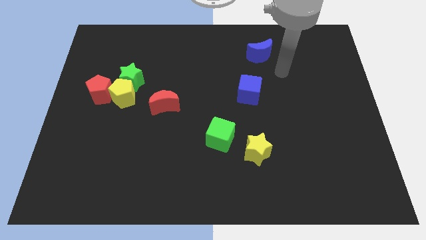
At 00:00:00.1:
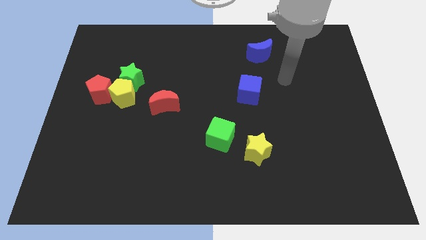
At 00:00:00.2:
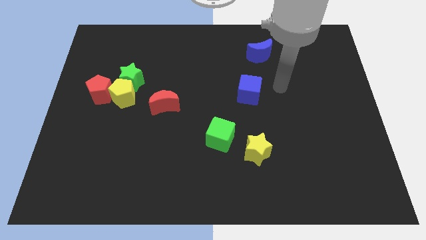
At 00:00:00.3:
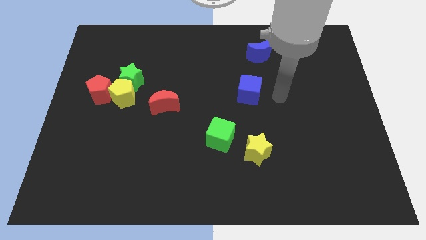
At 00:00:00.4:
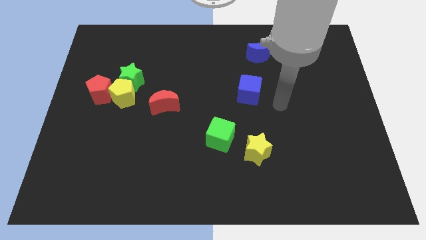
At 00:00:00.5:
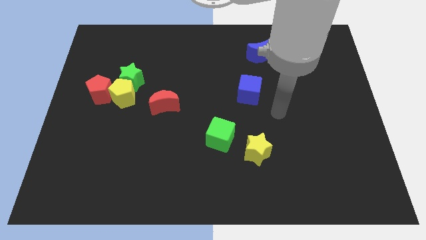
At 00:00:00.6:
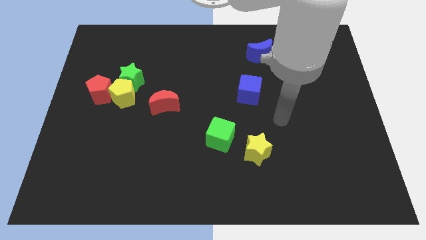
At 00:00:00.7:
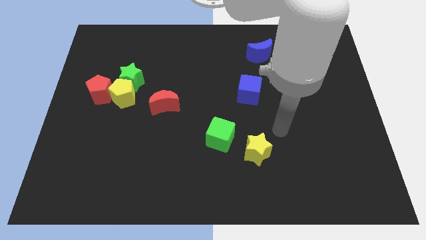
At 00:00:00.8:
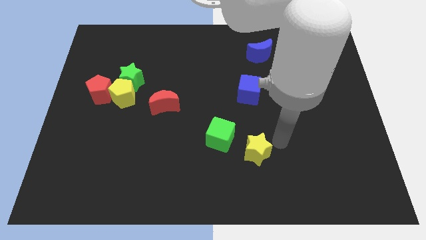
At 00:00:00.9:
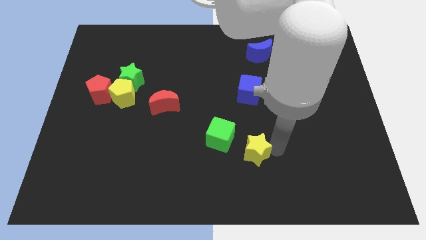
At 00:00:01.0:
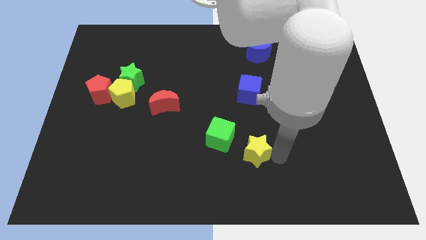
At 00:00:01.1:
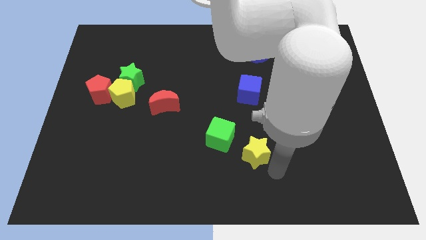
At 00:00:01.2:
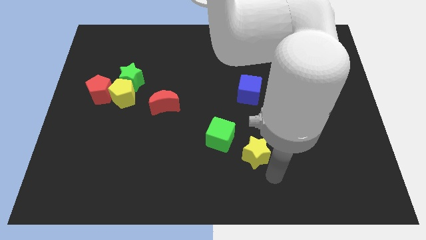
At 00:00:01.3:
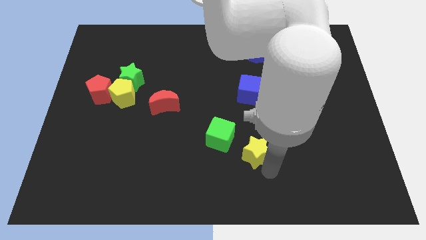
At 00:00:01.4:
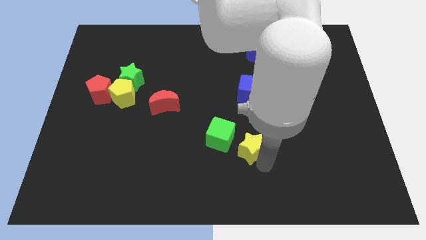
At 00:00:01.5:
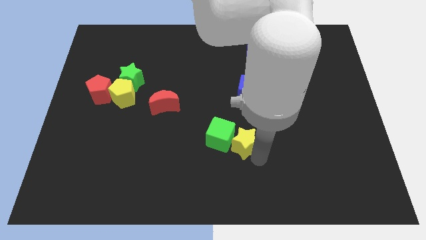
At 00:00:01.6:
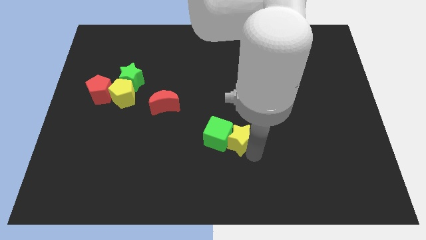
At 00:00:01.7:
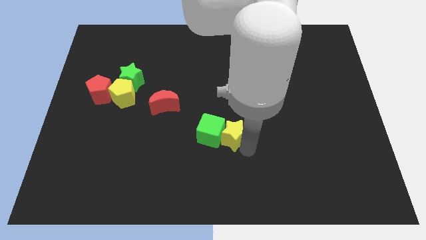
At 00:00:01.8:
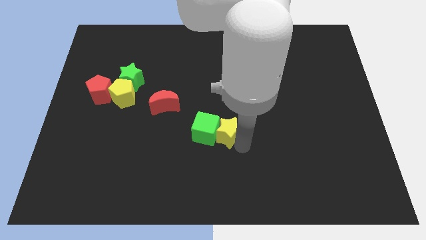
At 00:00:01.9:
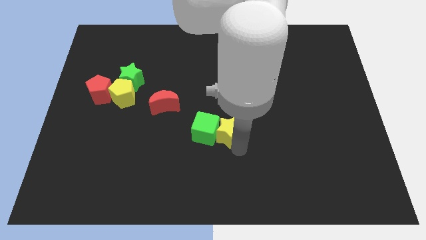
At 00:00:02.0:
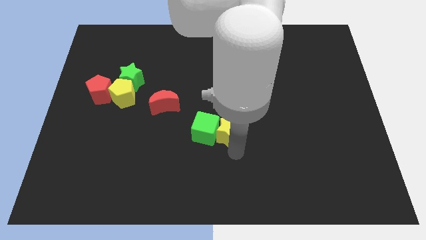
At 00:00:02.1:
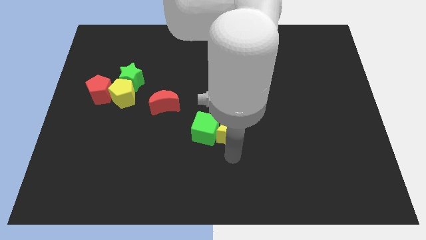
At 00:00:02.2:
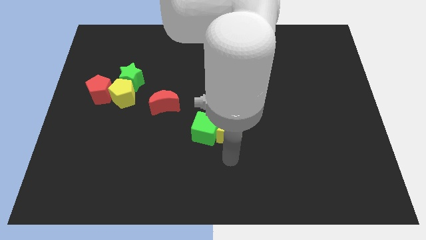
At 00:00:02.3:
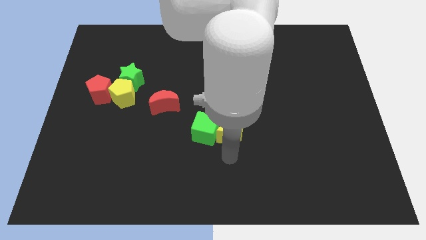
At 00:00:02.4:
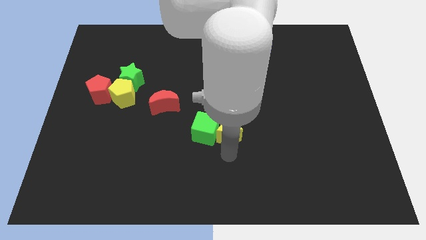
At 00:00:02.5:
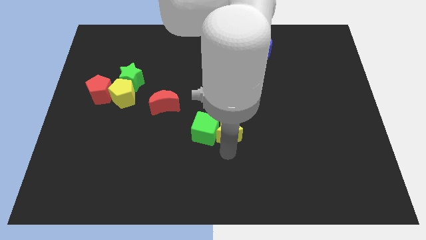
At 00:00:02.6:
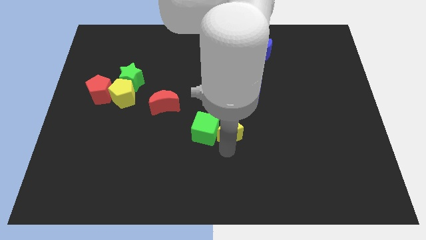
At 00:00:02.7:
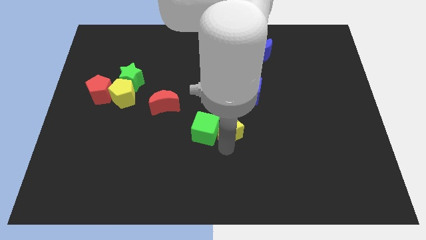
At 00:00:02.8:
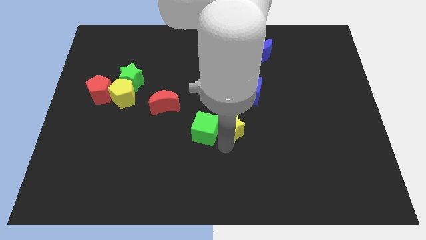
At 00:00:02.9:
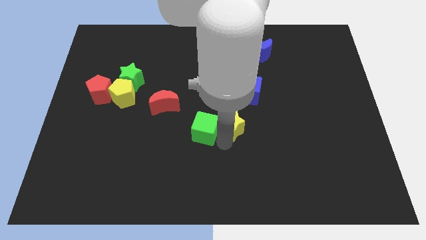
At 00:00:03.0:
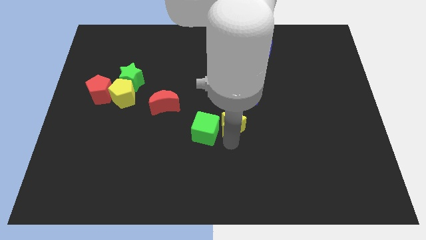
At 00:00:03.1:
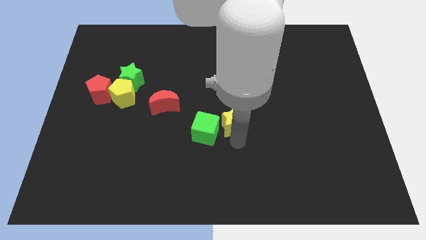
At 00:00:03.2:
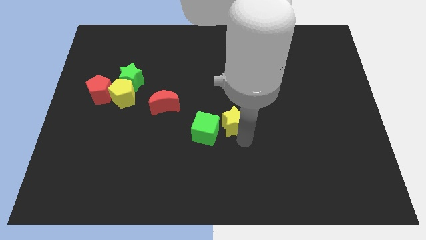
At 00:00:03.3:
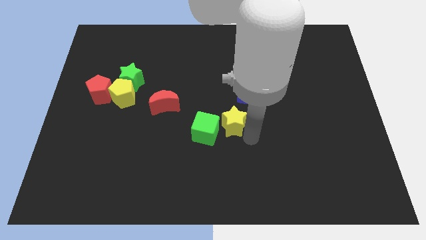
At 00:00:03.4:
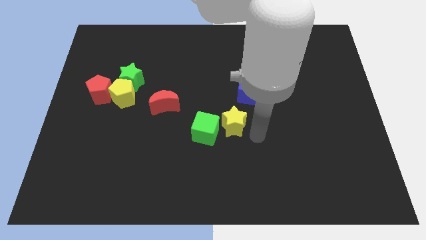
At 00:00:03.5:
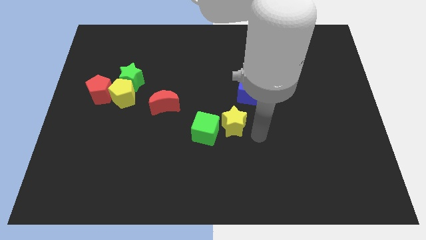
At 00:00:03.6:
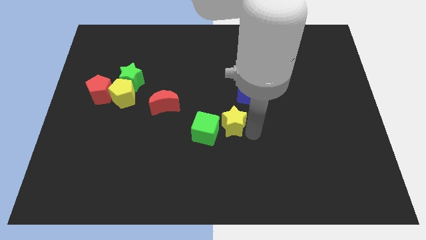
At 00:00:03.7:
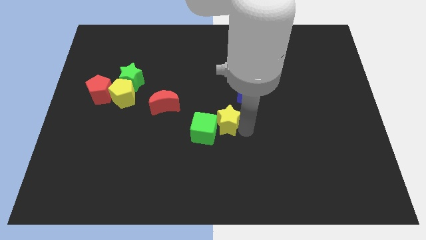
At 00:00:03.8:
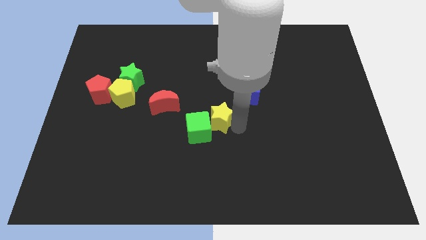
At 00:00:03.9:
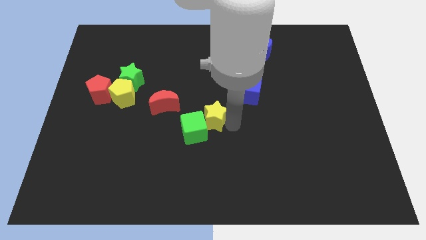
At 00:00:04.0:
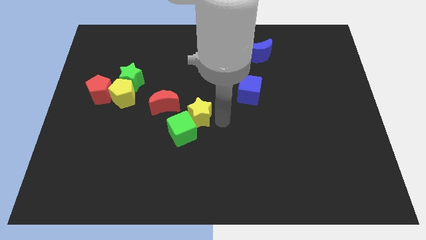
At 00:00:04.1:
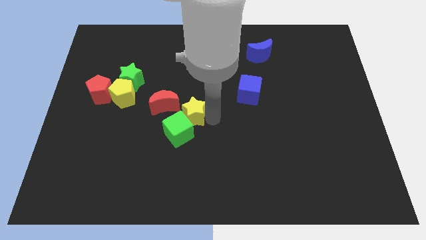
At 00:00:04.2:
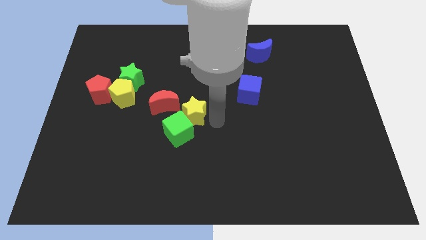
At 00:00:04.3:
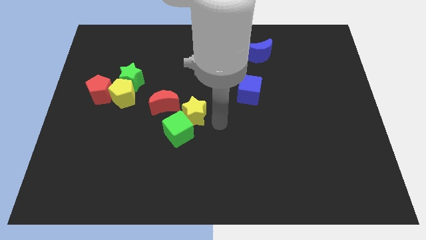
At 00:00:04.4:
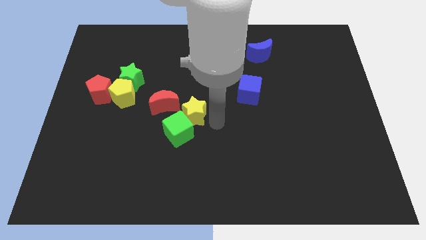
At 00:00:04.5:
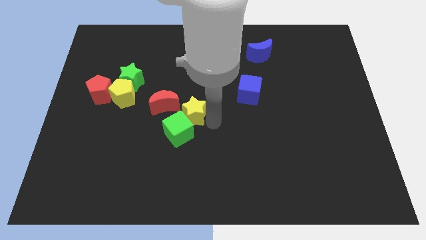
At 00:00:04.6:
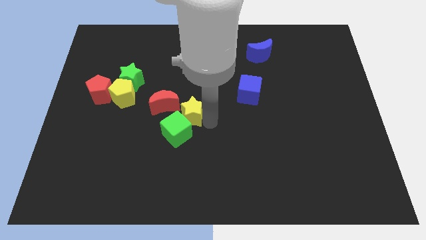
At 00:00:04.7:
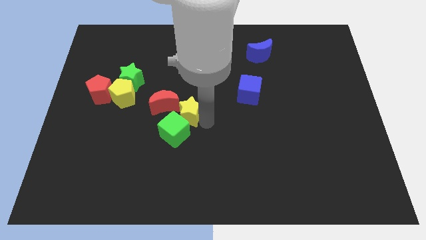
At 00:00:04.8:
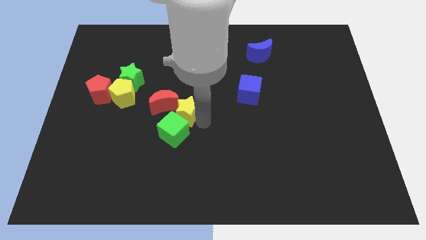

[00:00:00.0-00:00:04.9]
push the yellow star close to the red moon

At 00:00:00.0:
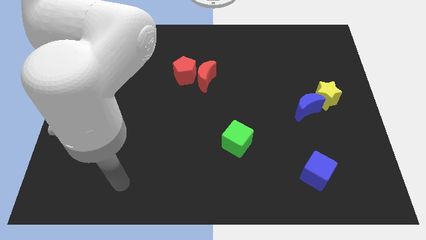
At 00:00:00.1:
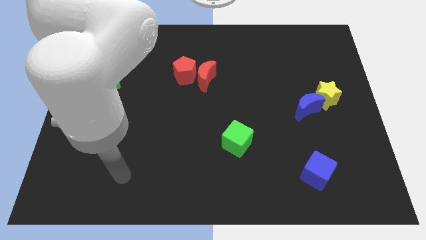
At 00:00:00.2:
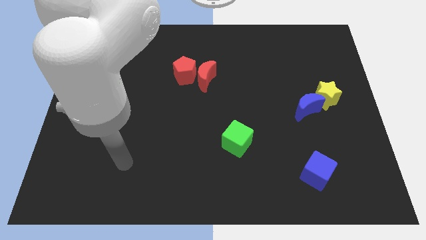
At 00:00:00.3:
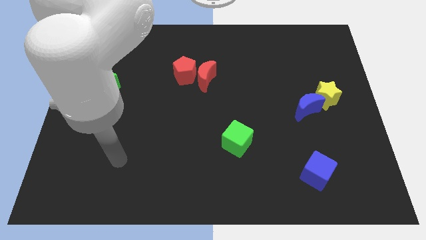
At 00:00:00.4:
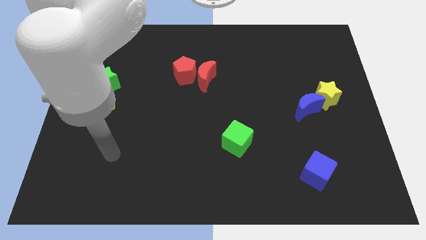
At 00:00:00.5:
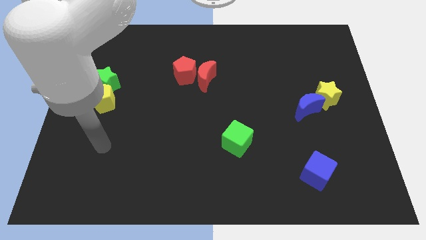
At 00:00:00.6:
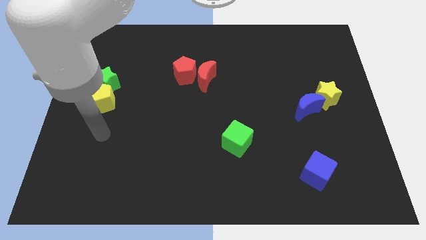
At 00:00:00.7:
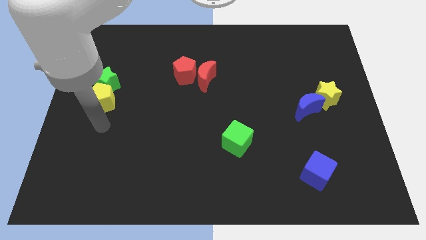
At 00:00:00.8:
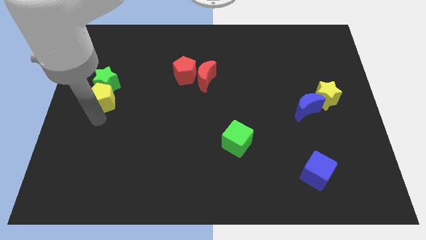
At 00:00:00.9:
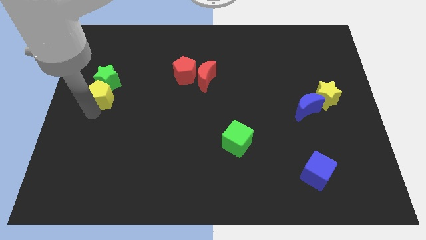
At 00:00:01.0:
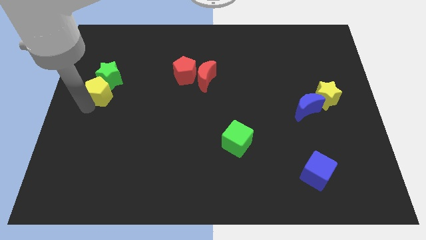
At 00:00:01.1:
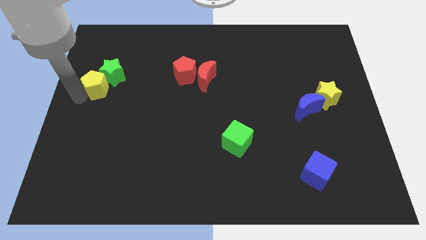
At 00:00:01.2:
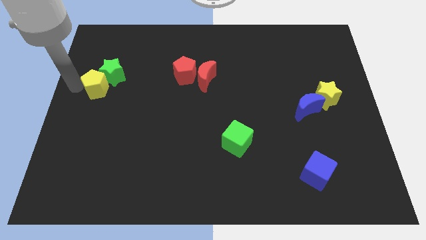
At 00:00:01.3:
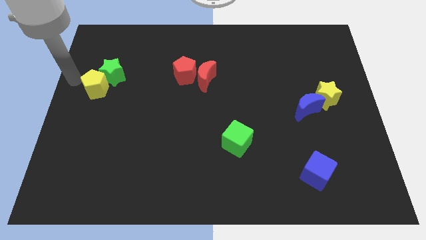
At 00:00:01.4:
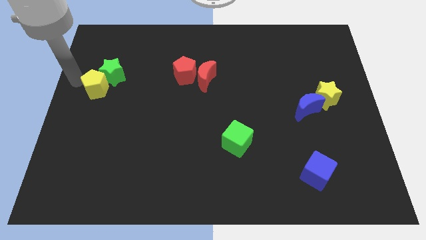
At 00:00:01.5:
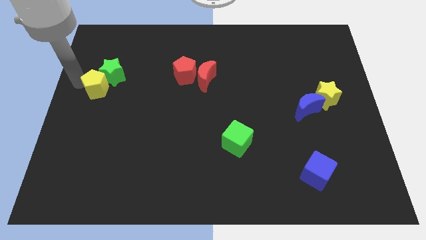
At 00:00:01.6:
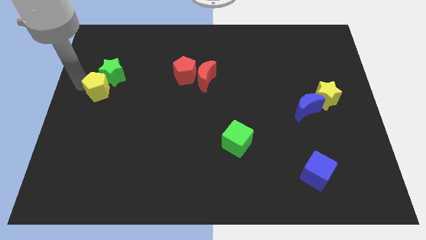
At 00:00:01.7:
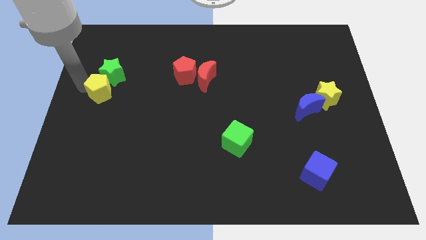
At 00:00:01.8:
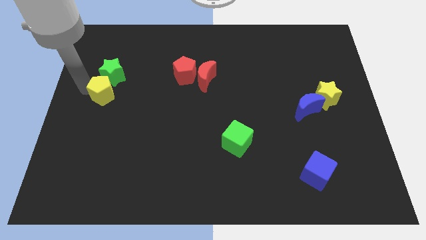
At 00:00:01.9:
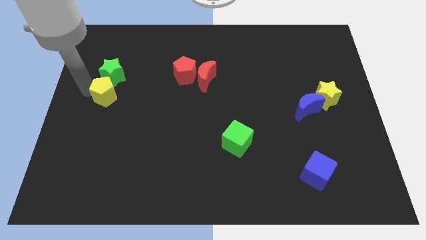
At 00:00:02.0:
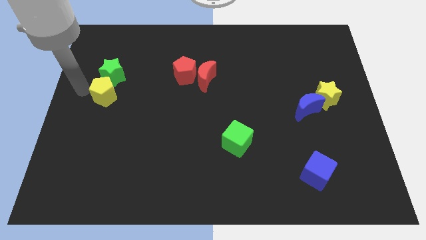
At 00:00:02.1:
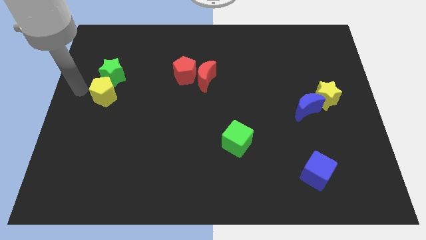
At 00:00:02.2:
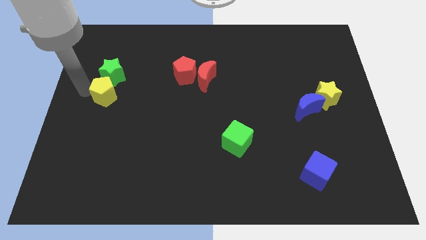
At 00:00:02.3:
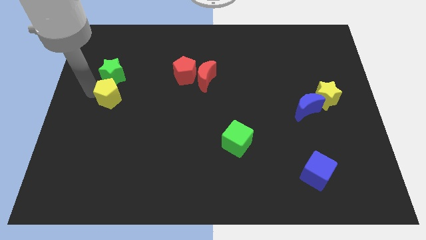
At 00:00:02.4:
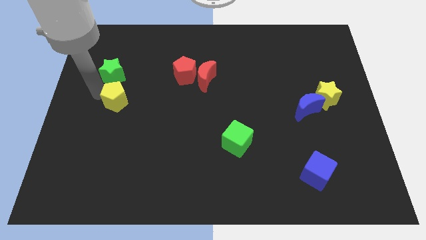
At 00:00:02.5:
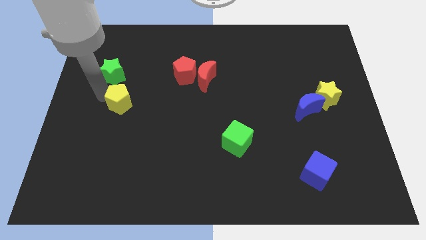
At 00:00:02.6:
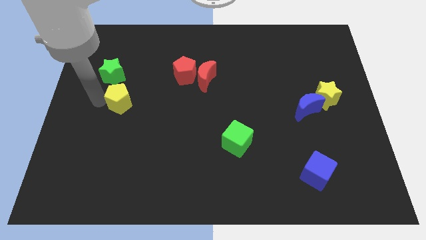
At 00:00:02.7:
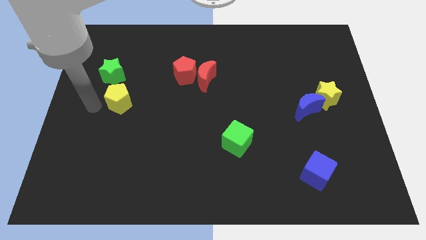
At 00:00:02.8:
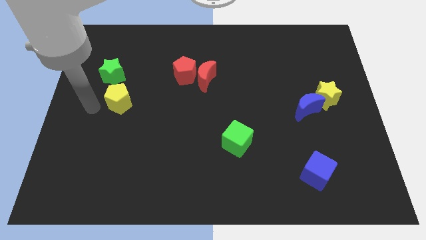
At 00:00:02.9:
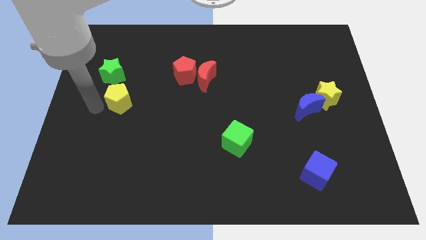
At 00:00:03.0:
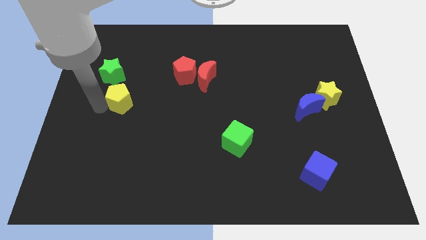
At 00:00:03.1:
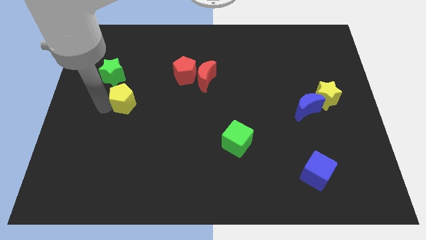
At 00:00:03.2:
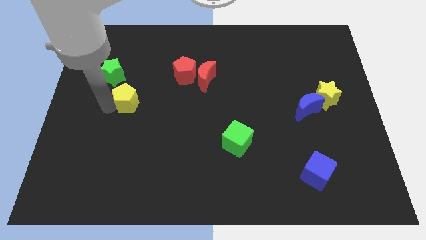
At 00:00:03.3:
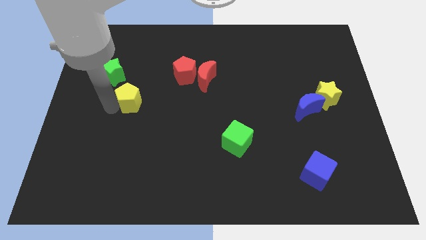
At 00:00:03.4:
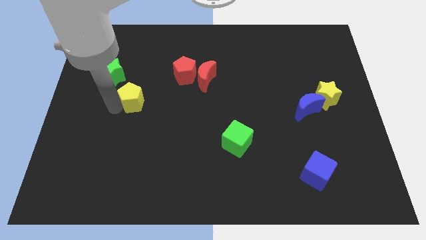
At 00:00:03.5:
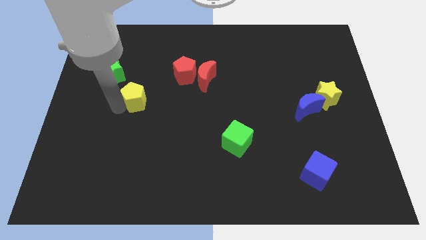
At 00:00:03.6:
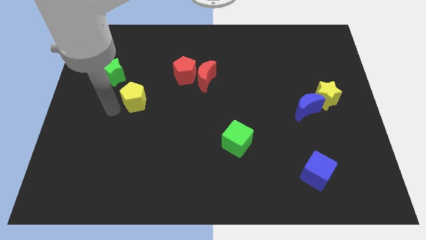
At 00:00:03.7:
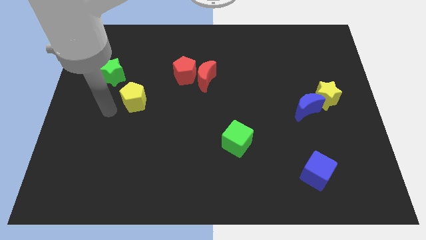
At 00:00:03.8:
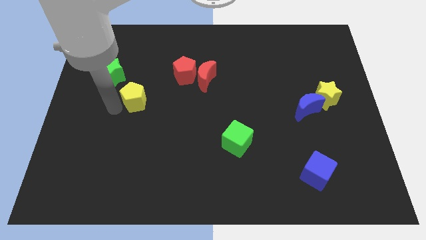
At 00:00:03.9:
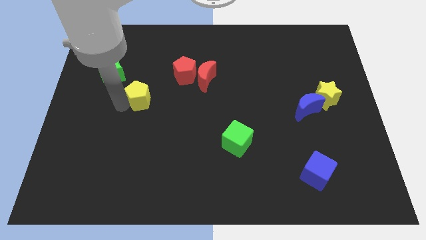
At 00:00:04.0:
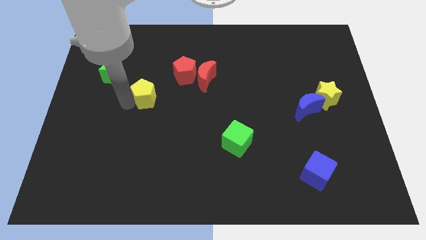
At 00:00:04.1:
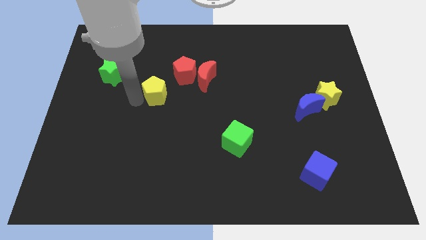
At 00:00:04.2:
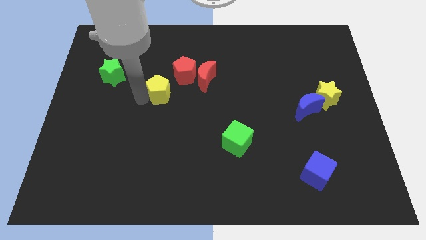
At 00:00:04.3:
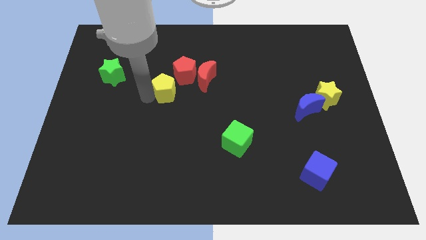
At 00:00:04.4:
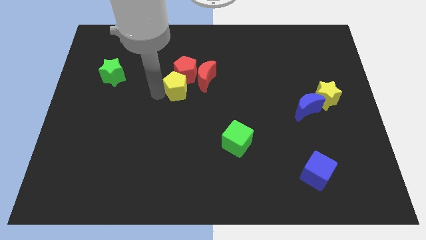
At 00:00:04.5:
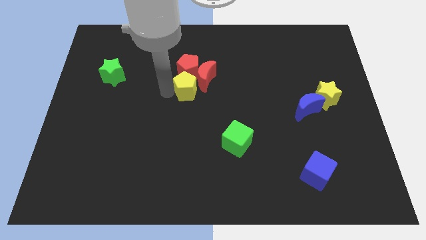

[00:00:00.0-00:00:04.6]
put the yellow pentagon close to the red moon
